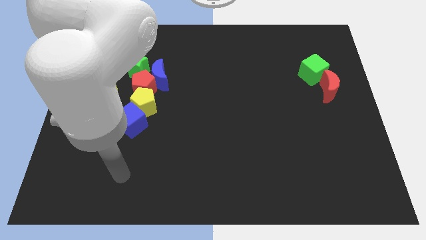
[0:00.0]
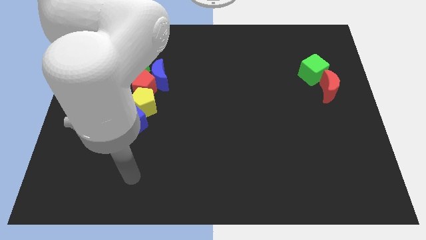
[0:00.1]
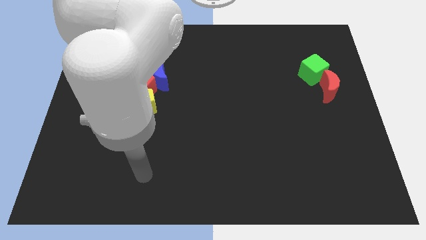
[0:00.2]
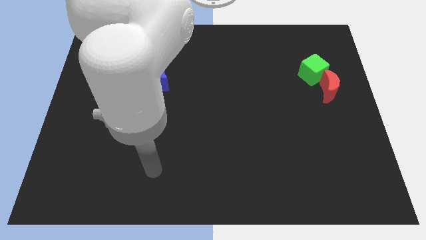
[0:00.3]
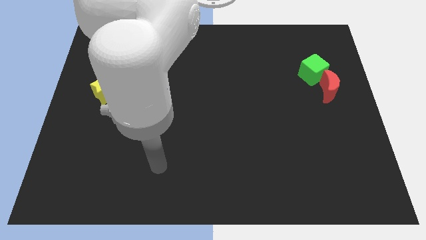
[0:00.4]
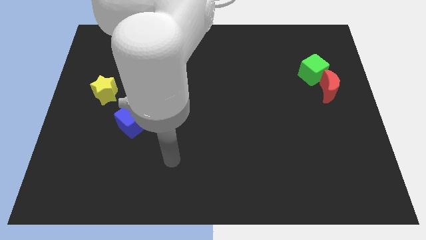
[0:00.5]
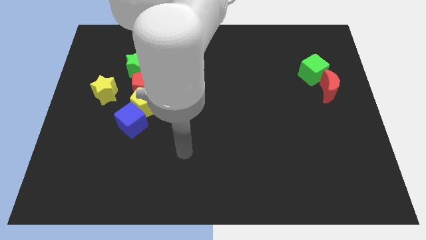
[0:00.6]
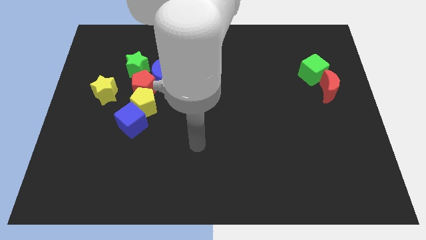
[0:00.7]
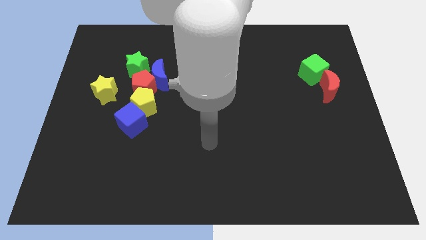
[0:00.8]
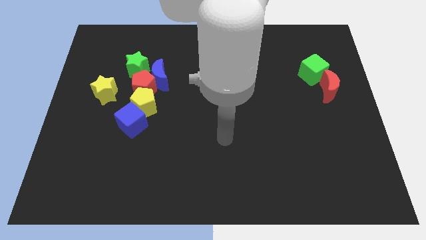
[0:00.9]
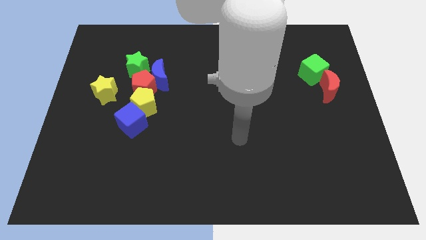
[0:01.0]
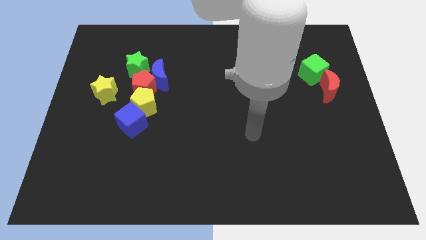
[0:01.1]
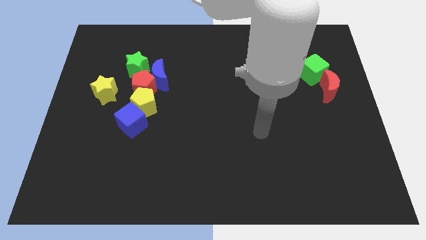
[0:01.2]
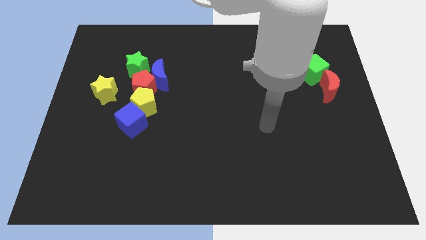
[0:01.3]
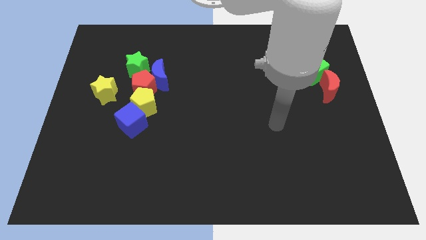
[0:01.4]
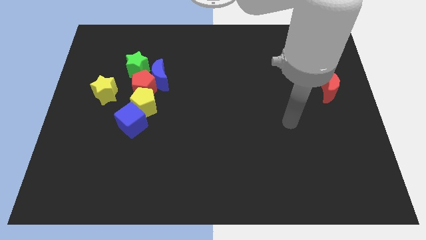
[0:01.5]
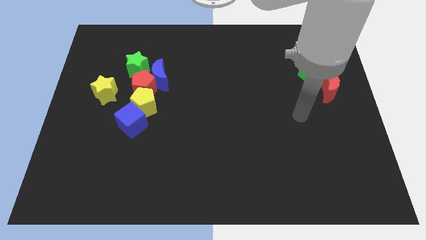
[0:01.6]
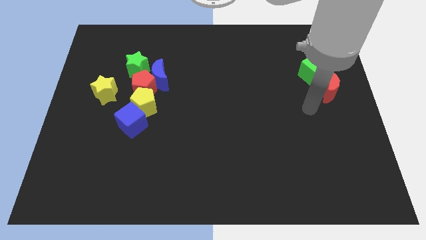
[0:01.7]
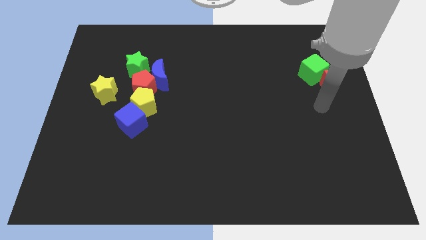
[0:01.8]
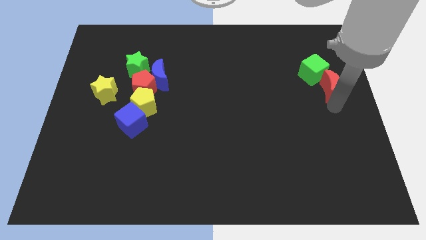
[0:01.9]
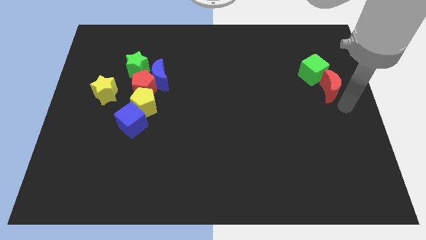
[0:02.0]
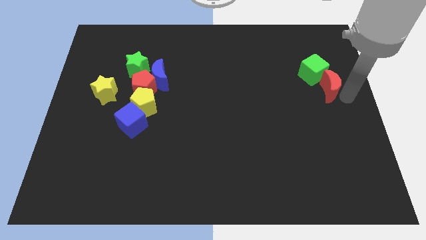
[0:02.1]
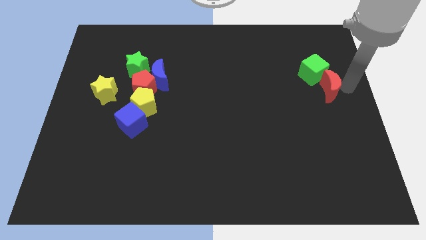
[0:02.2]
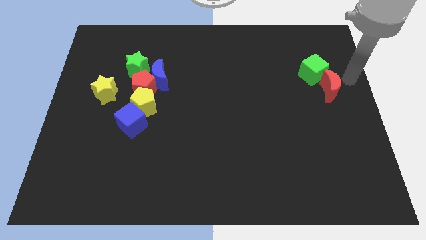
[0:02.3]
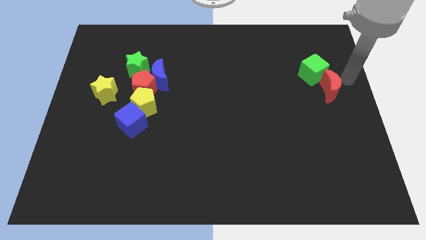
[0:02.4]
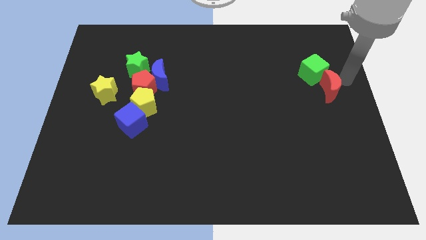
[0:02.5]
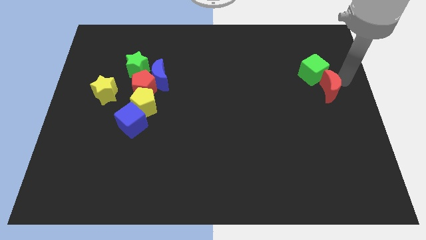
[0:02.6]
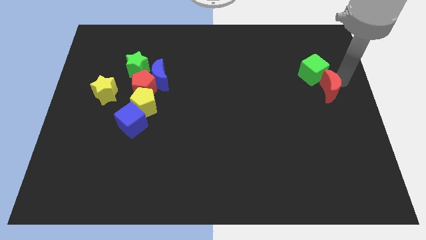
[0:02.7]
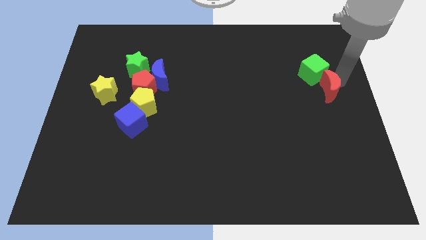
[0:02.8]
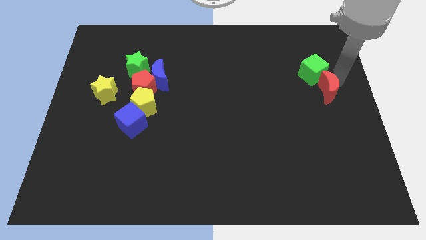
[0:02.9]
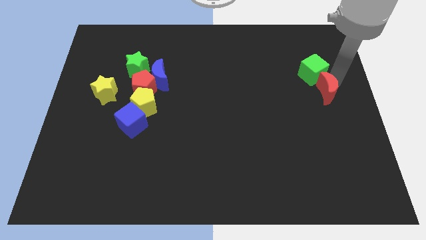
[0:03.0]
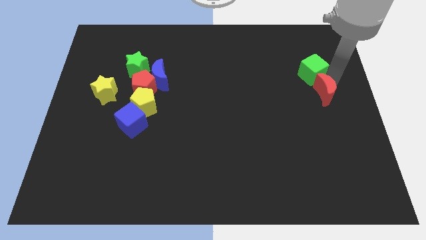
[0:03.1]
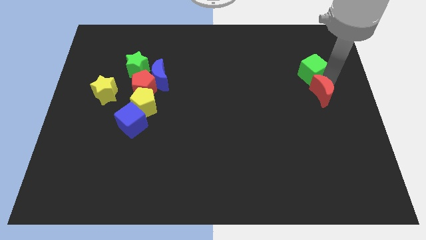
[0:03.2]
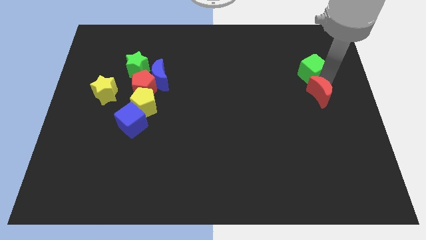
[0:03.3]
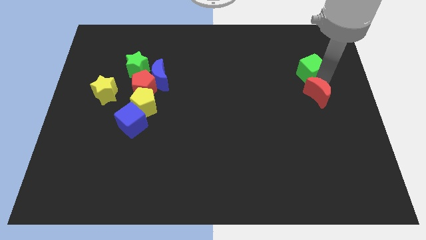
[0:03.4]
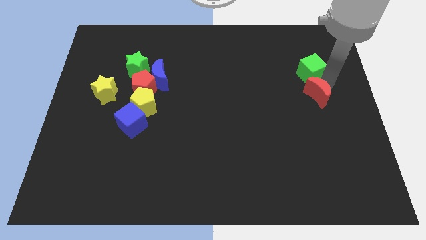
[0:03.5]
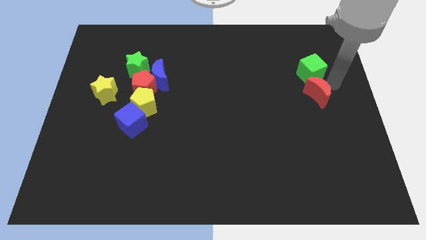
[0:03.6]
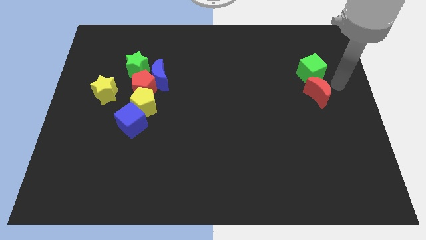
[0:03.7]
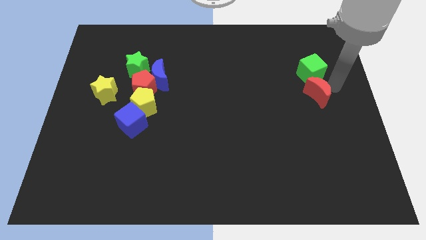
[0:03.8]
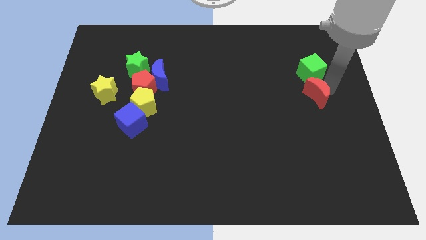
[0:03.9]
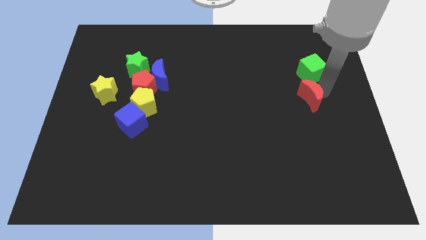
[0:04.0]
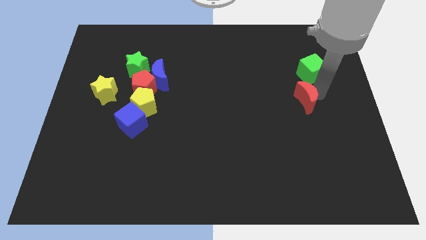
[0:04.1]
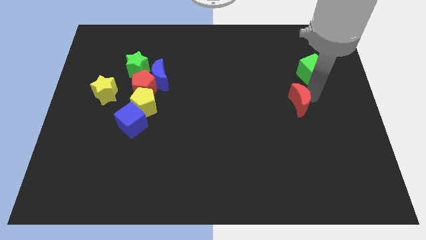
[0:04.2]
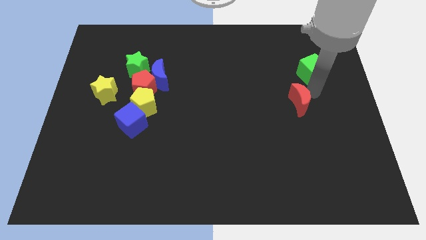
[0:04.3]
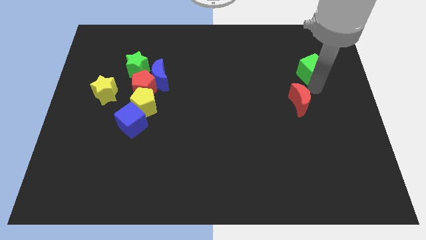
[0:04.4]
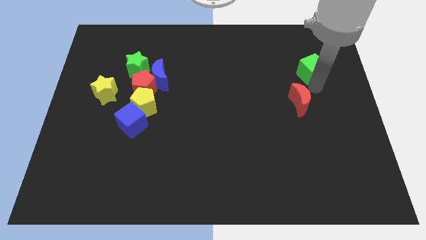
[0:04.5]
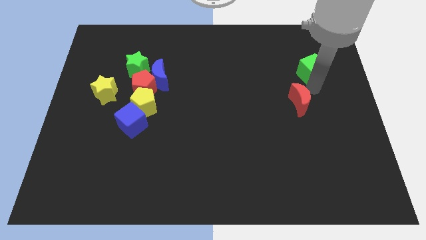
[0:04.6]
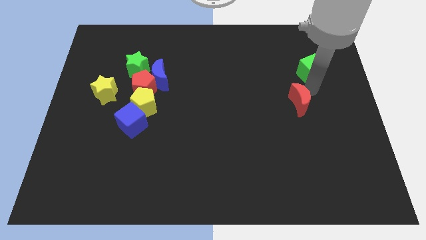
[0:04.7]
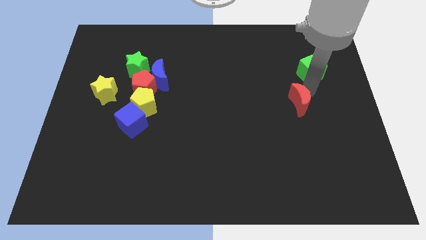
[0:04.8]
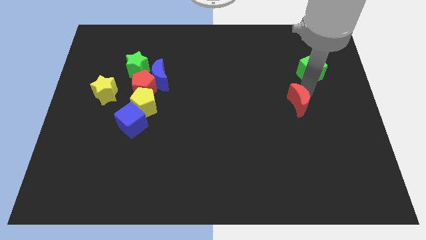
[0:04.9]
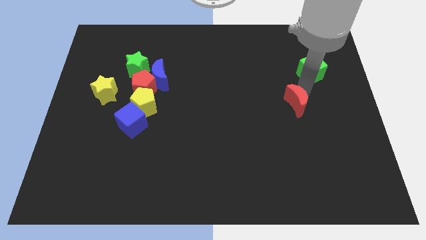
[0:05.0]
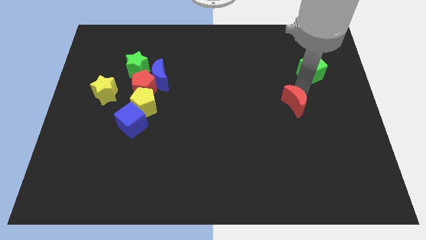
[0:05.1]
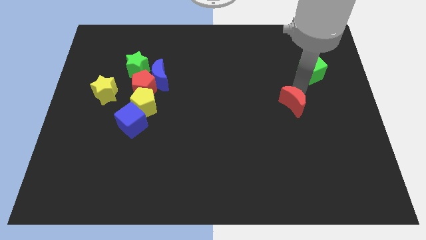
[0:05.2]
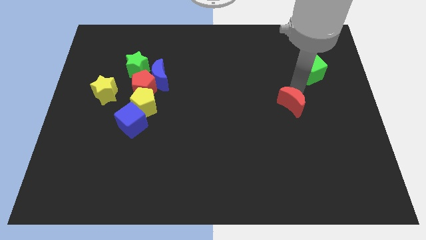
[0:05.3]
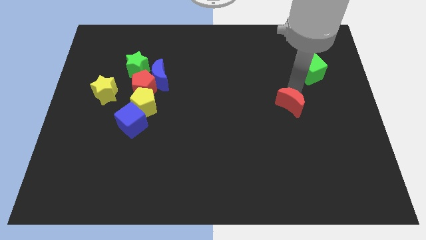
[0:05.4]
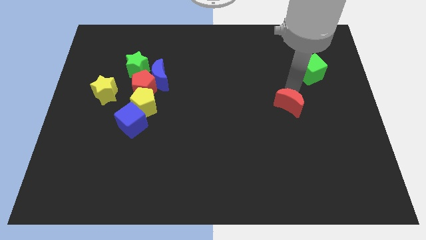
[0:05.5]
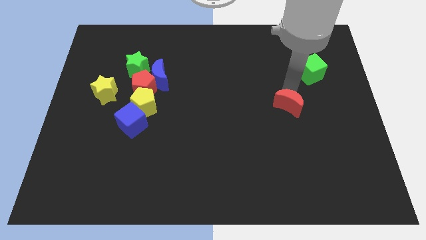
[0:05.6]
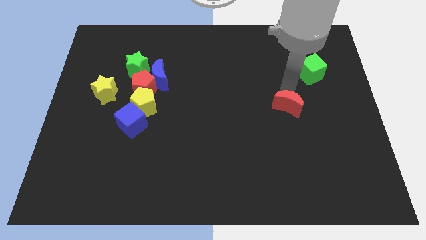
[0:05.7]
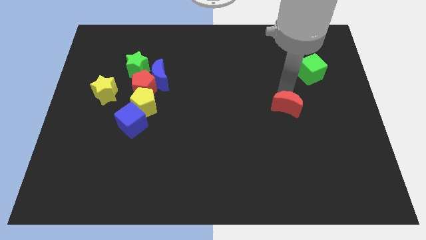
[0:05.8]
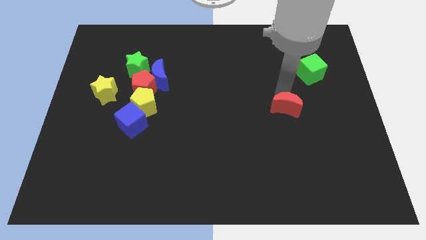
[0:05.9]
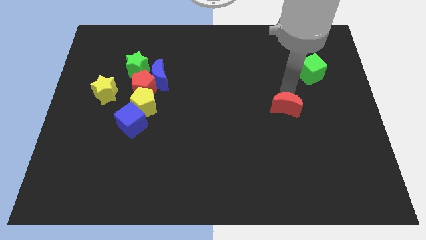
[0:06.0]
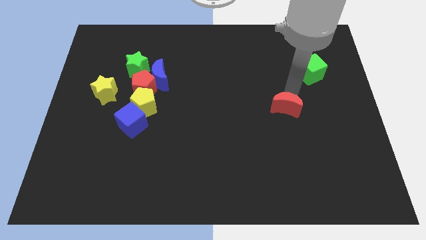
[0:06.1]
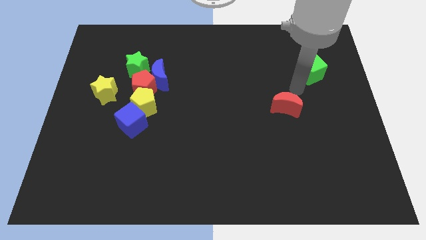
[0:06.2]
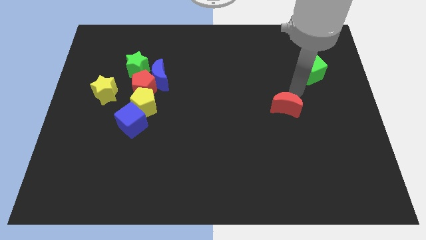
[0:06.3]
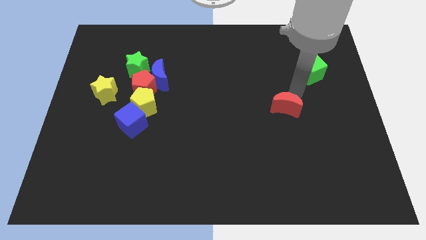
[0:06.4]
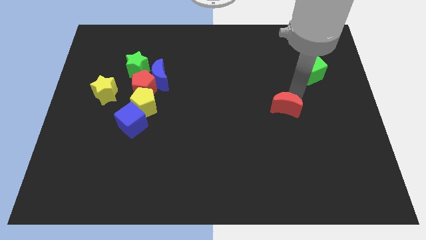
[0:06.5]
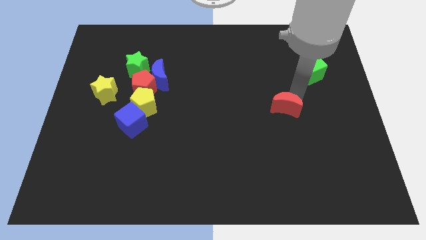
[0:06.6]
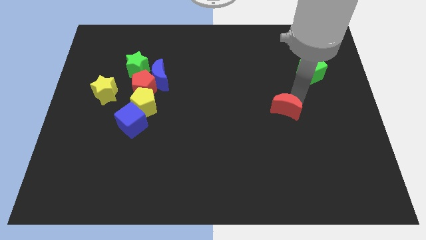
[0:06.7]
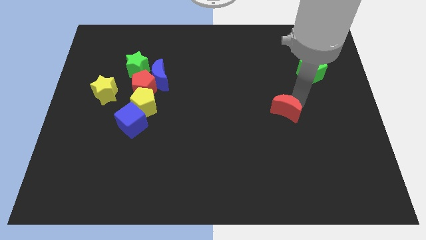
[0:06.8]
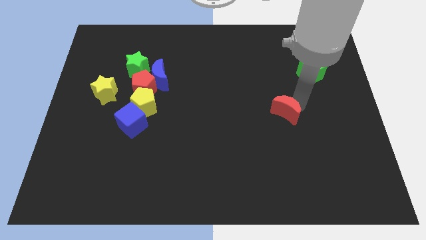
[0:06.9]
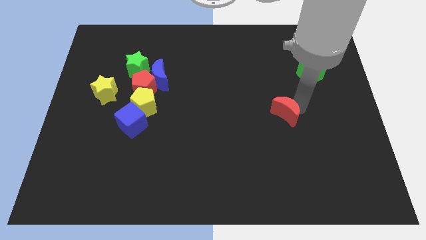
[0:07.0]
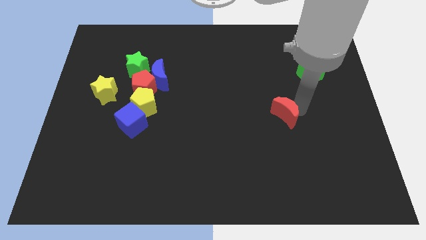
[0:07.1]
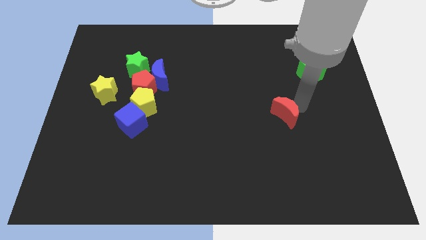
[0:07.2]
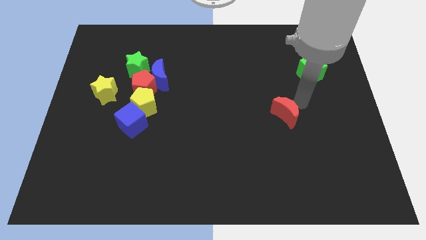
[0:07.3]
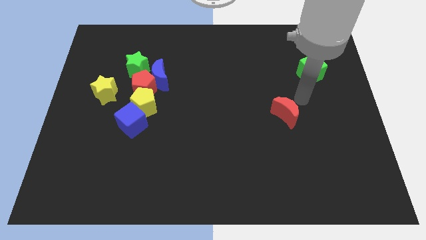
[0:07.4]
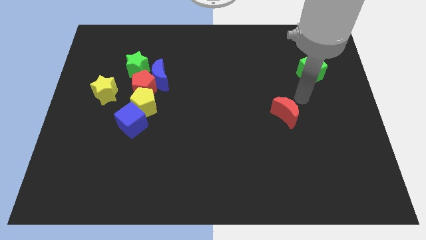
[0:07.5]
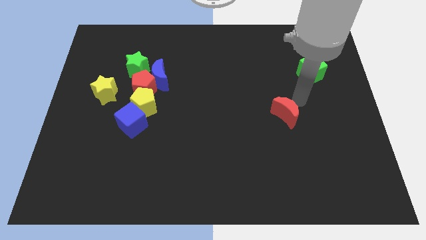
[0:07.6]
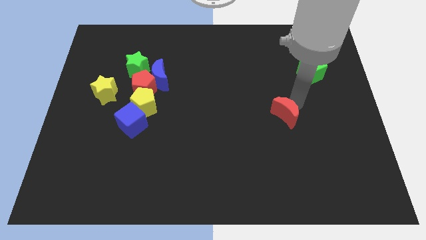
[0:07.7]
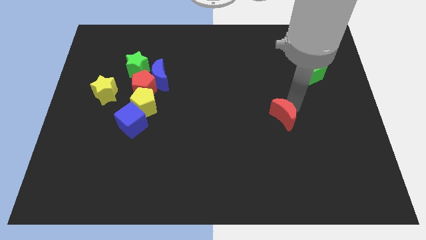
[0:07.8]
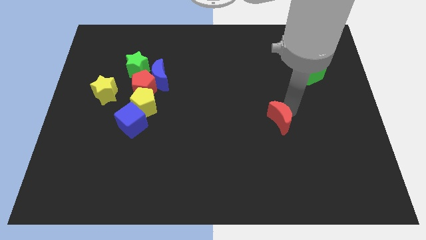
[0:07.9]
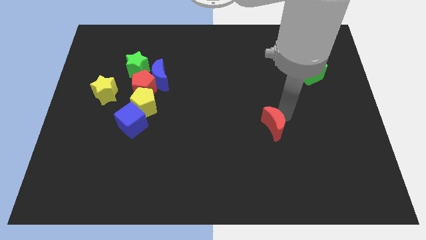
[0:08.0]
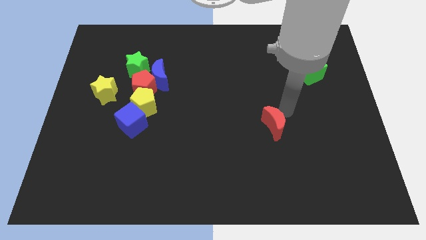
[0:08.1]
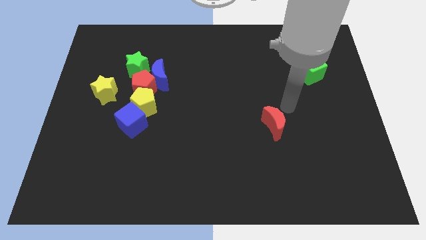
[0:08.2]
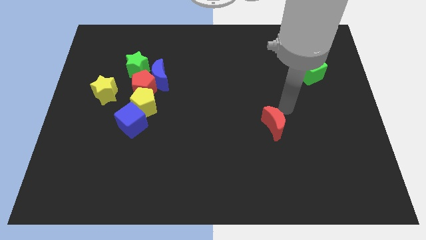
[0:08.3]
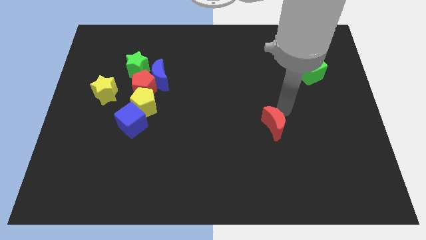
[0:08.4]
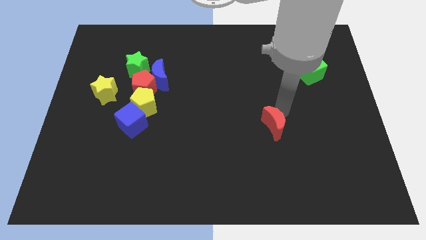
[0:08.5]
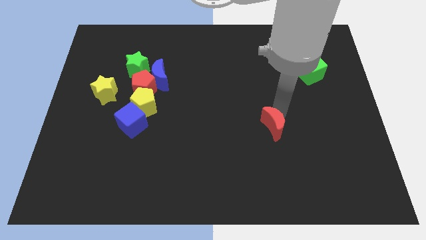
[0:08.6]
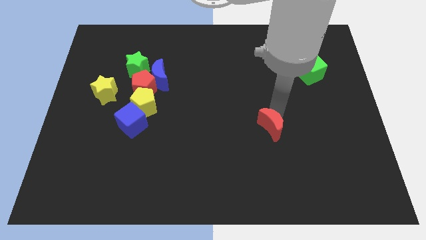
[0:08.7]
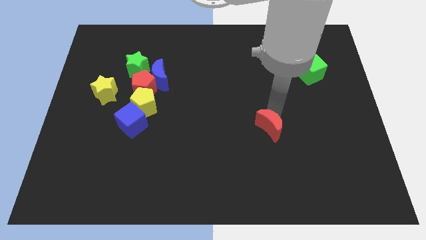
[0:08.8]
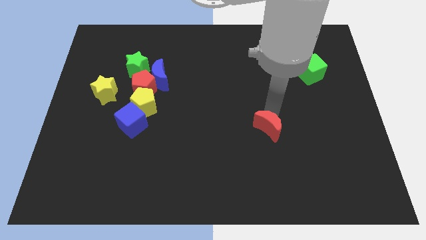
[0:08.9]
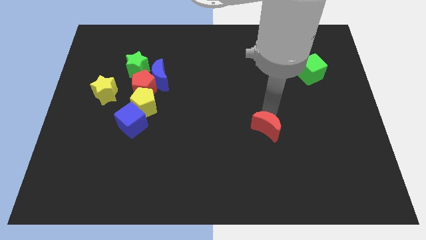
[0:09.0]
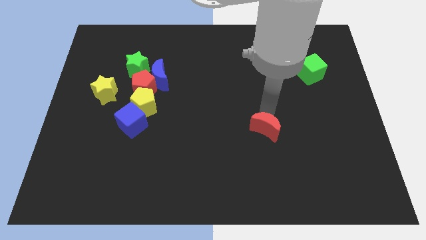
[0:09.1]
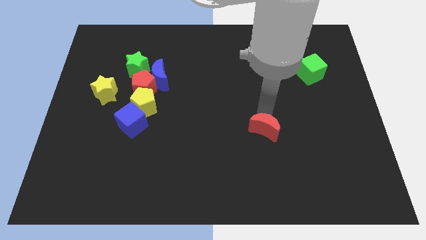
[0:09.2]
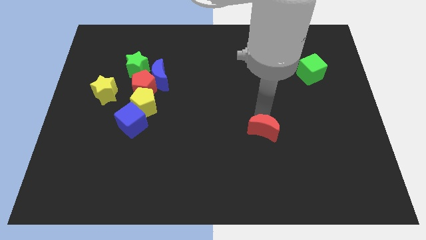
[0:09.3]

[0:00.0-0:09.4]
slide the red moon diagonally downwards and left
